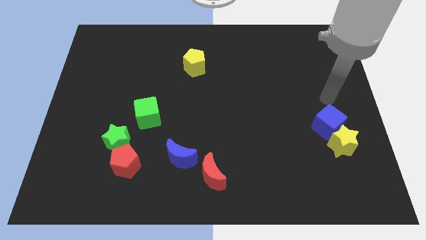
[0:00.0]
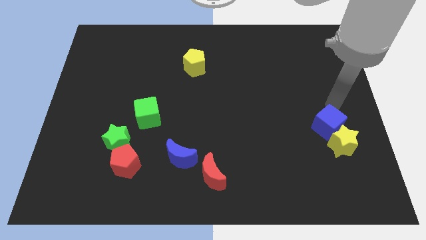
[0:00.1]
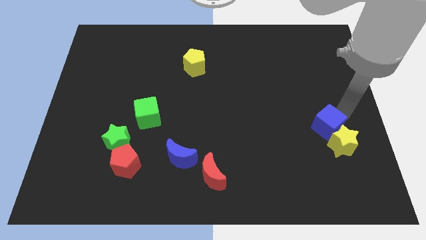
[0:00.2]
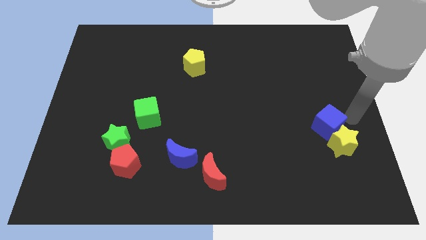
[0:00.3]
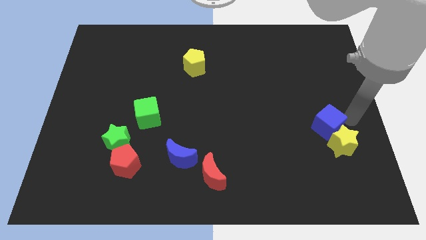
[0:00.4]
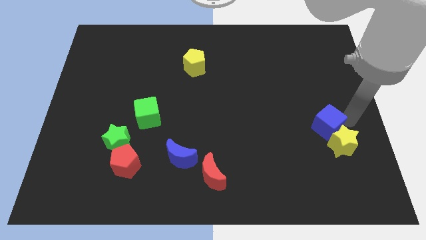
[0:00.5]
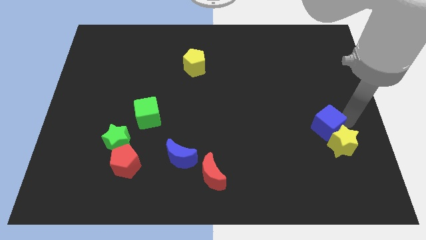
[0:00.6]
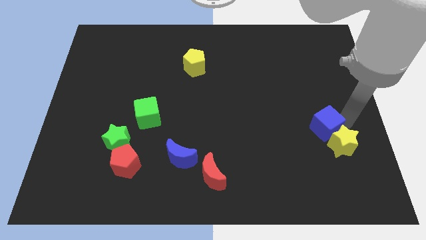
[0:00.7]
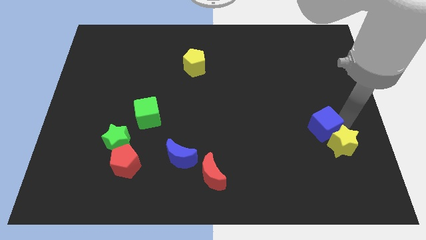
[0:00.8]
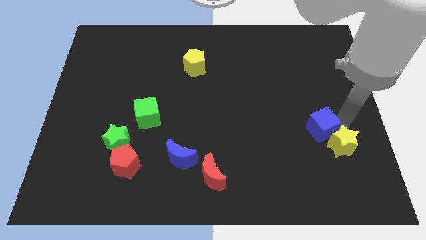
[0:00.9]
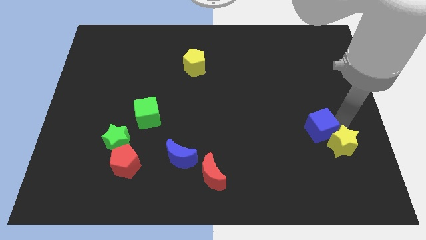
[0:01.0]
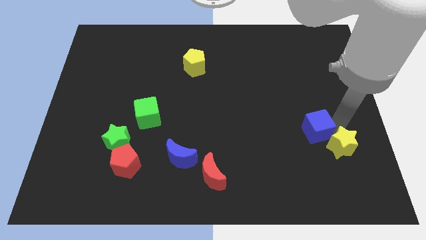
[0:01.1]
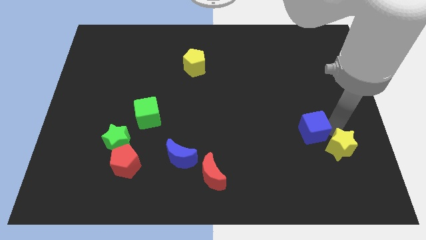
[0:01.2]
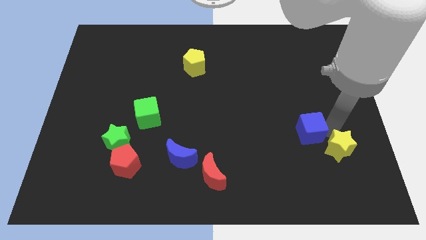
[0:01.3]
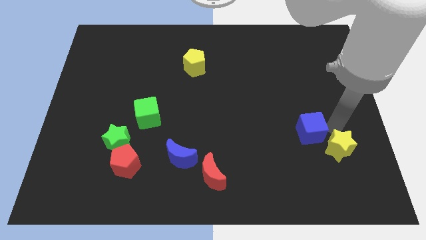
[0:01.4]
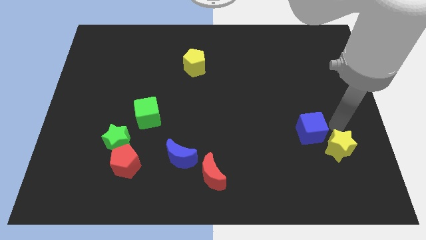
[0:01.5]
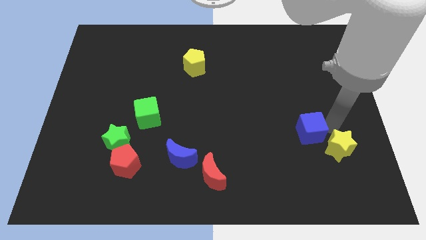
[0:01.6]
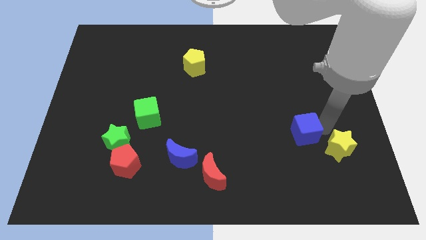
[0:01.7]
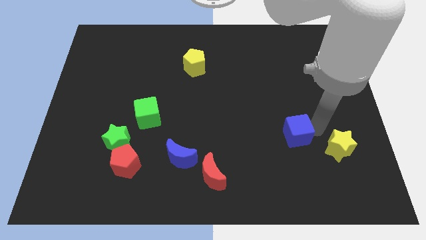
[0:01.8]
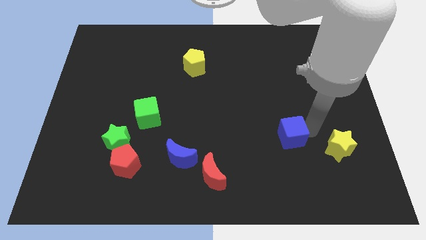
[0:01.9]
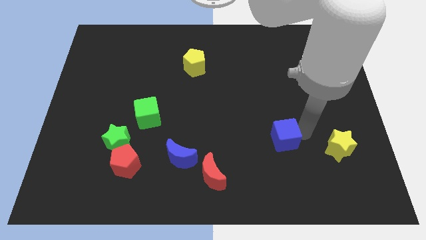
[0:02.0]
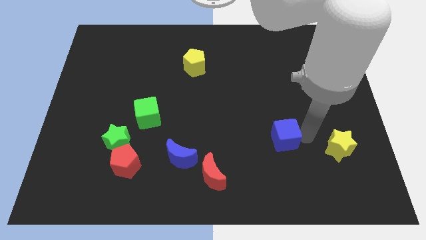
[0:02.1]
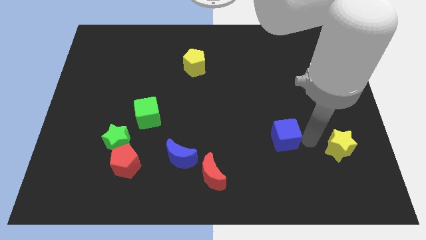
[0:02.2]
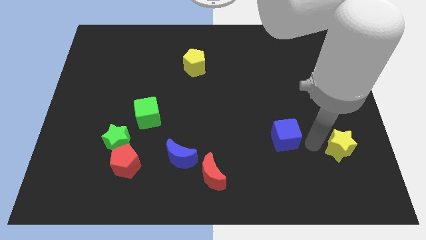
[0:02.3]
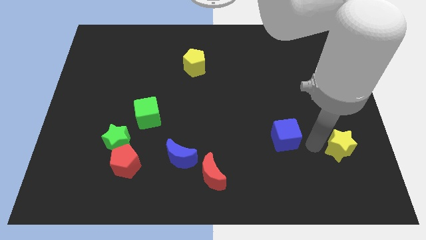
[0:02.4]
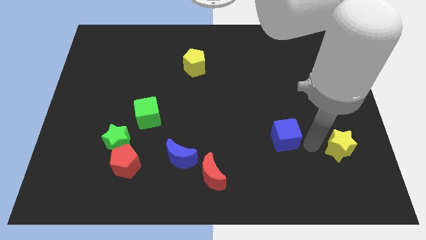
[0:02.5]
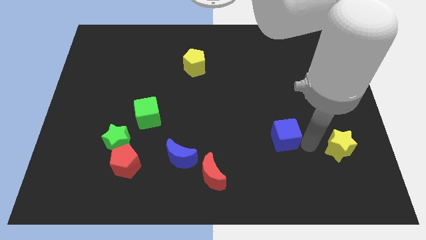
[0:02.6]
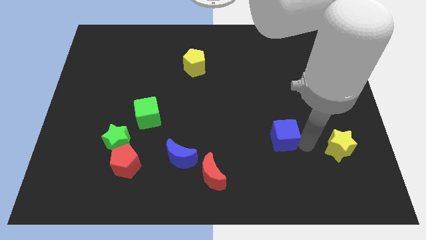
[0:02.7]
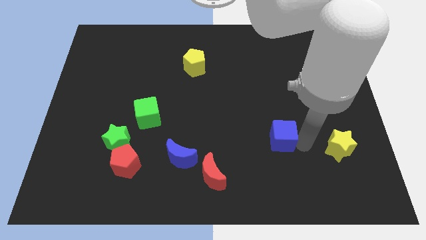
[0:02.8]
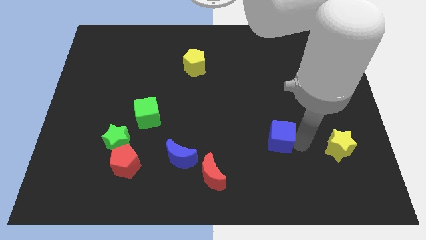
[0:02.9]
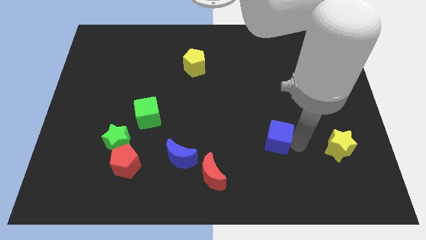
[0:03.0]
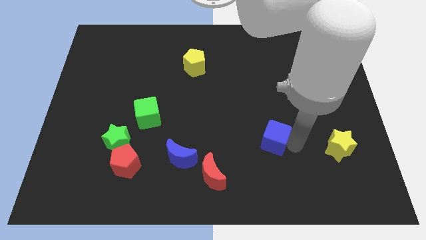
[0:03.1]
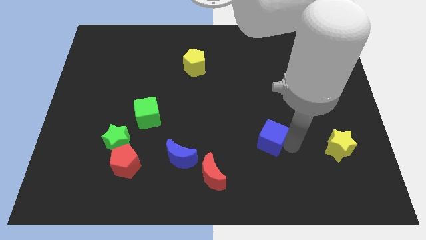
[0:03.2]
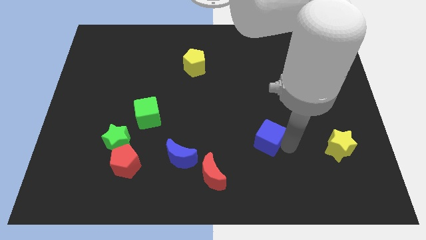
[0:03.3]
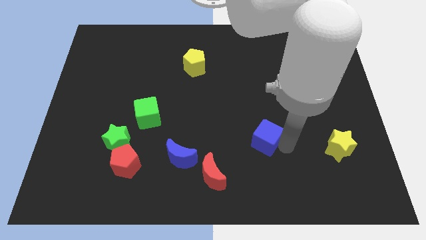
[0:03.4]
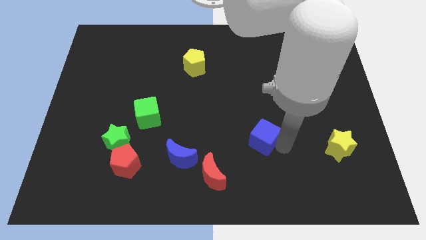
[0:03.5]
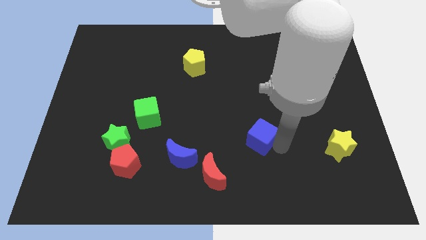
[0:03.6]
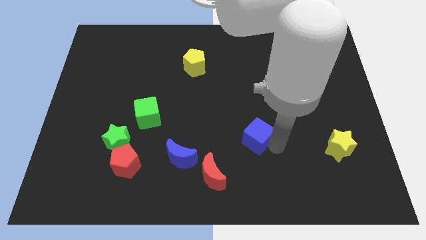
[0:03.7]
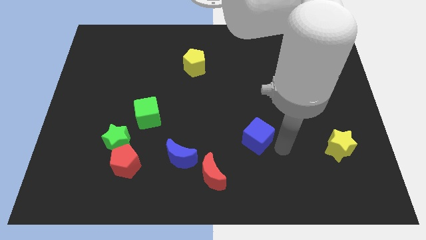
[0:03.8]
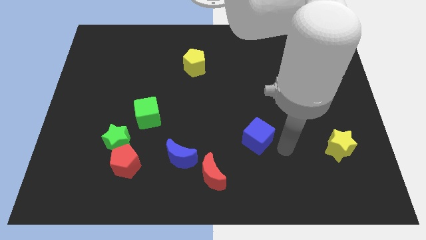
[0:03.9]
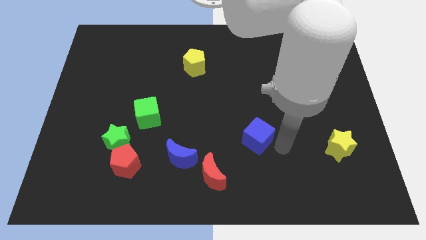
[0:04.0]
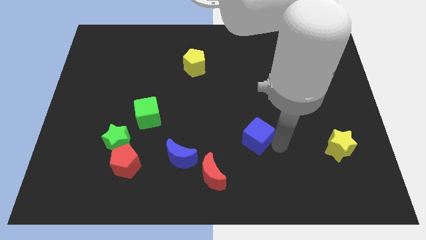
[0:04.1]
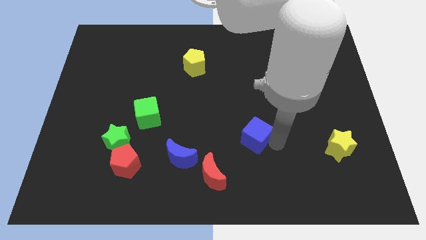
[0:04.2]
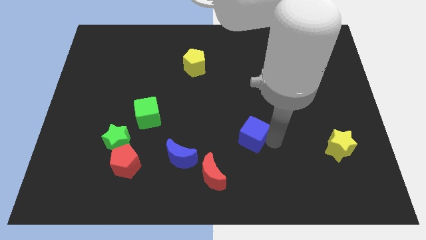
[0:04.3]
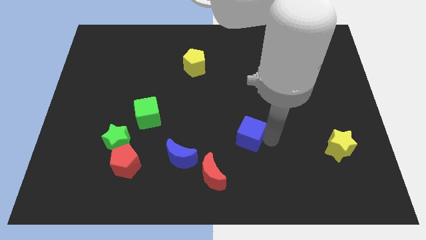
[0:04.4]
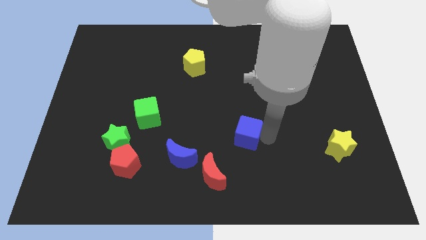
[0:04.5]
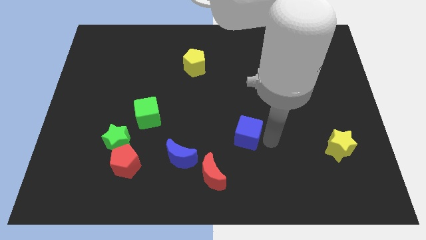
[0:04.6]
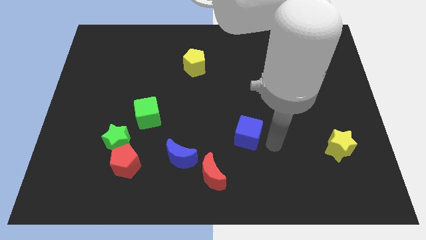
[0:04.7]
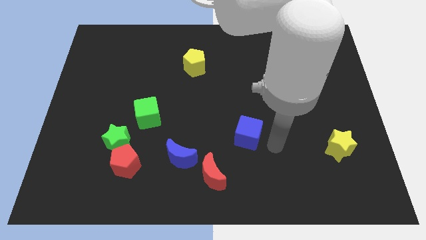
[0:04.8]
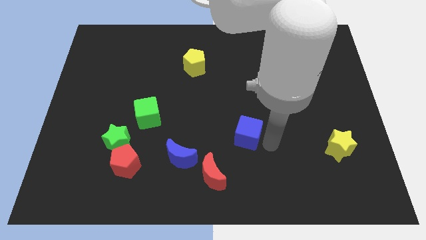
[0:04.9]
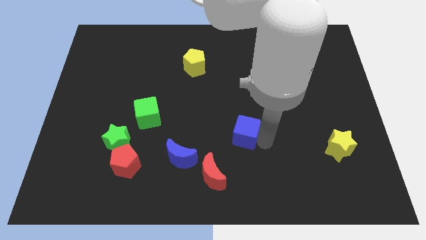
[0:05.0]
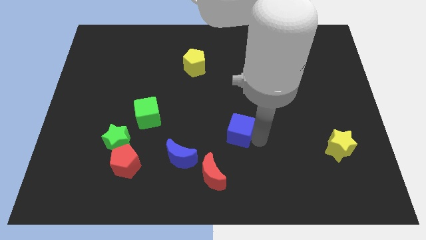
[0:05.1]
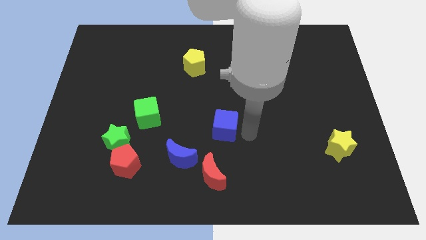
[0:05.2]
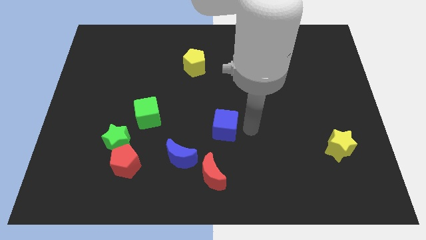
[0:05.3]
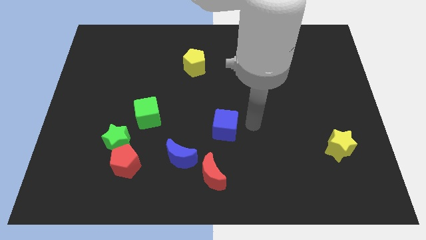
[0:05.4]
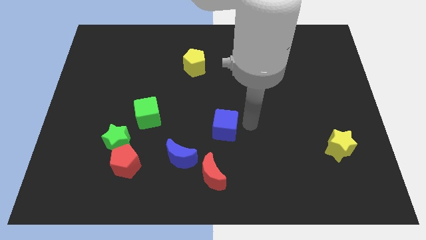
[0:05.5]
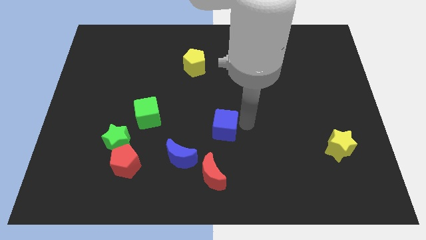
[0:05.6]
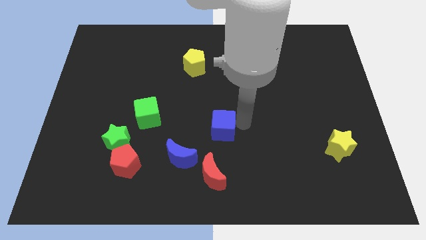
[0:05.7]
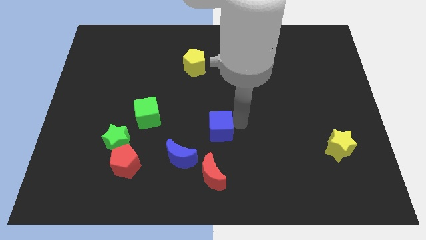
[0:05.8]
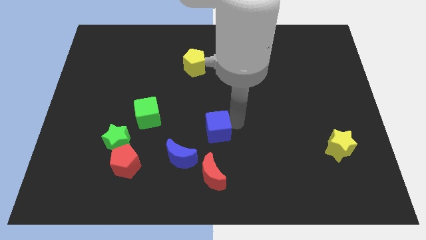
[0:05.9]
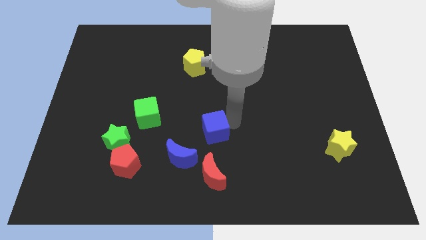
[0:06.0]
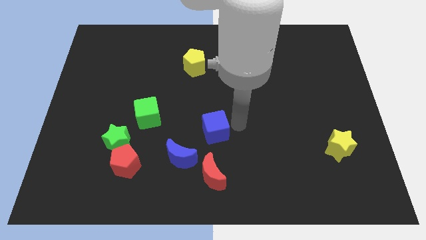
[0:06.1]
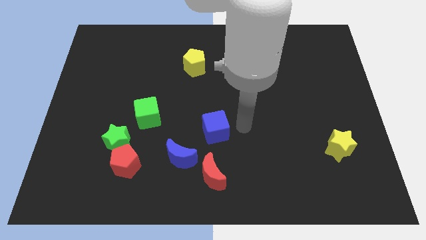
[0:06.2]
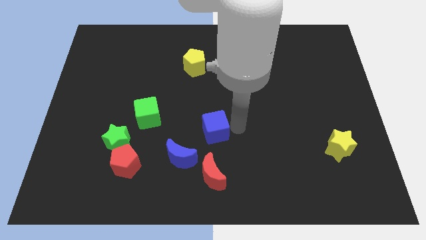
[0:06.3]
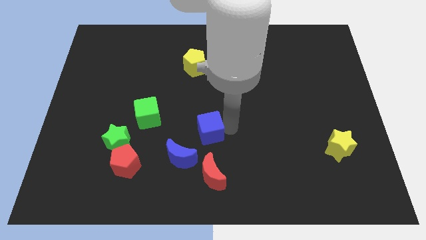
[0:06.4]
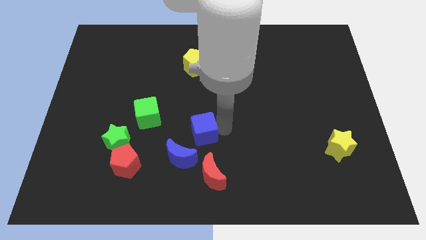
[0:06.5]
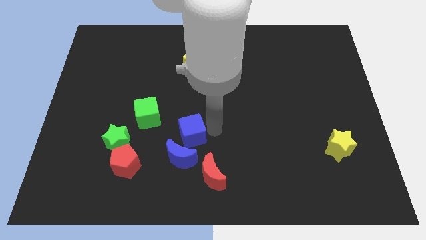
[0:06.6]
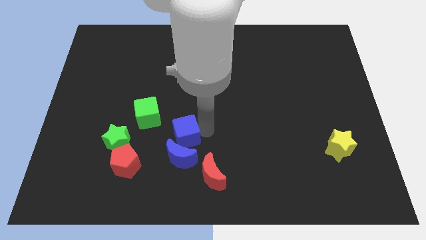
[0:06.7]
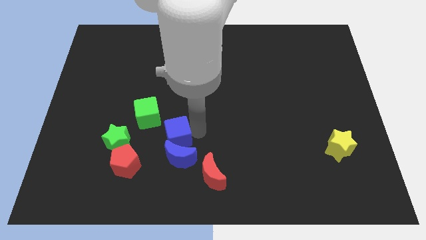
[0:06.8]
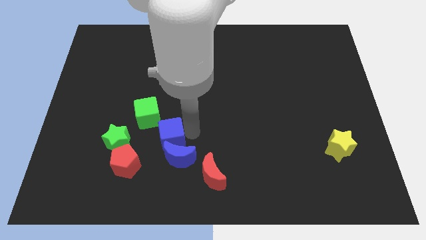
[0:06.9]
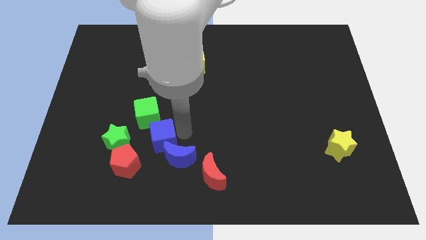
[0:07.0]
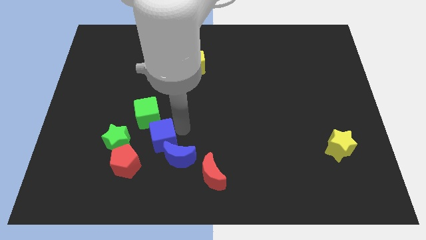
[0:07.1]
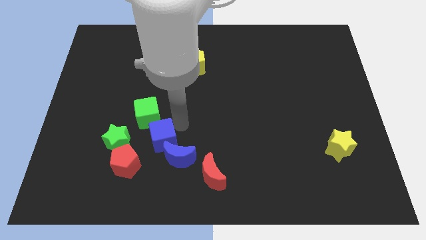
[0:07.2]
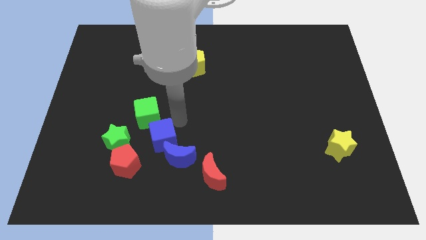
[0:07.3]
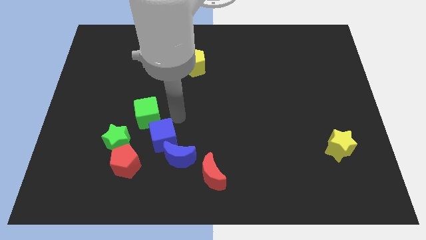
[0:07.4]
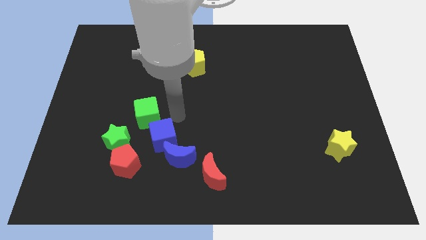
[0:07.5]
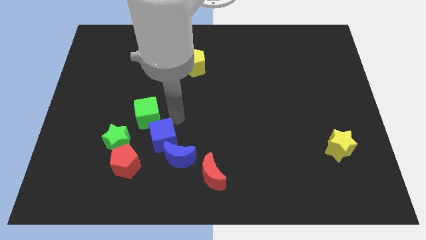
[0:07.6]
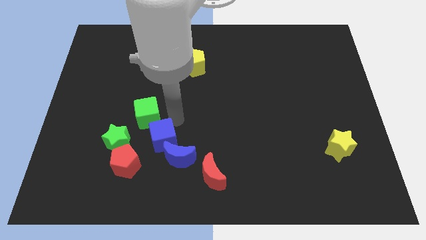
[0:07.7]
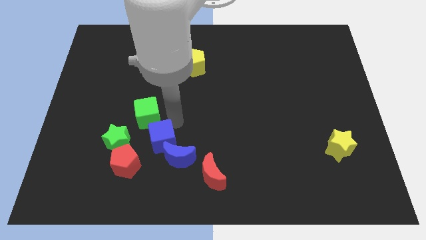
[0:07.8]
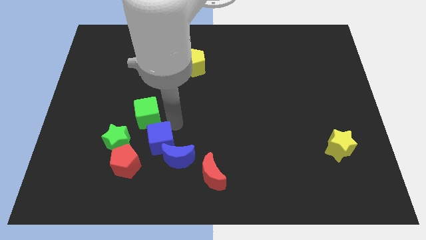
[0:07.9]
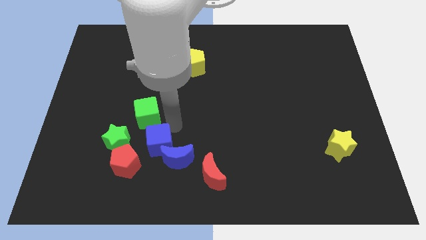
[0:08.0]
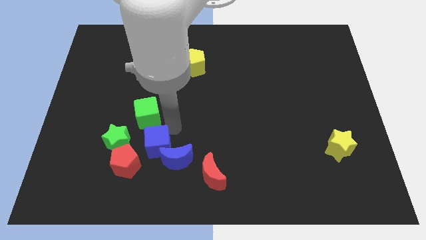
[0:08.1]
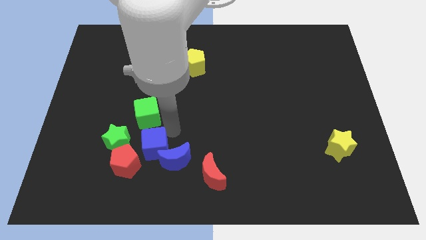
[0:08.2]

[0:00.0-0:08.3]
push the blue cube diagonally down and to the right of the green star
